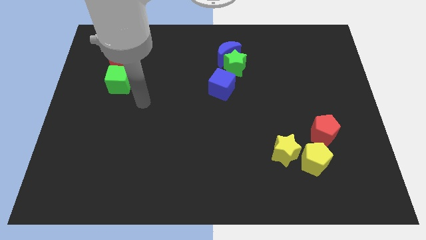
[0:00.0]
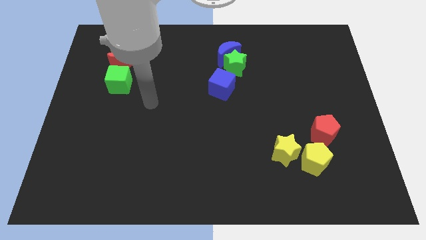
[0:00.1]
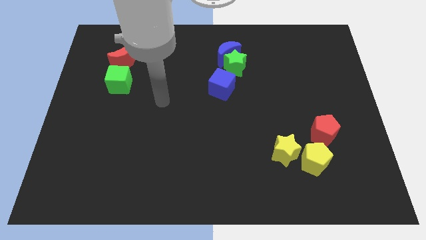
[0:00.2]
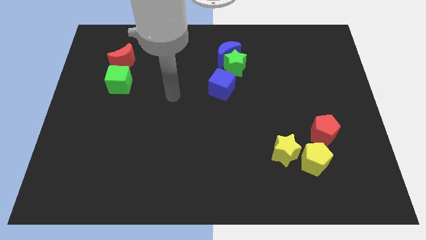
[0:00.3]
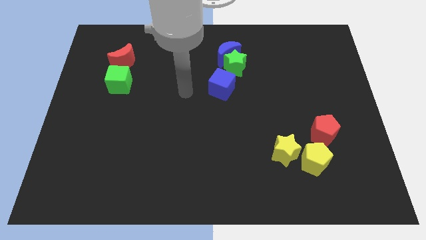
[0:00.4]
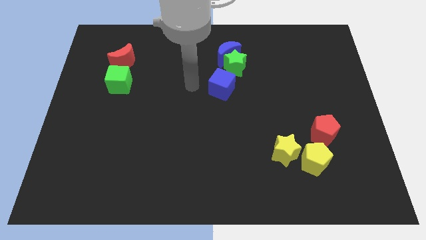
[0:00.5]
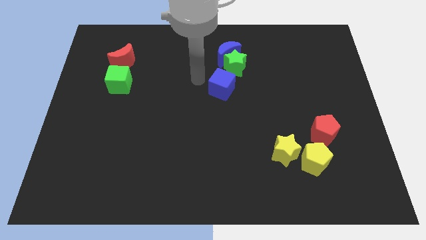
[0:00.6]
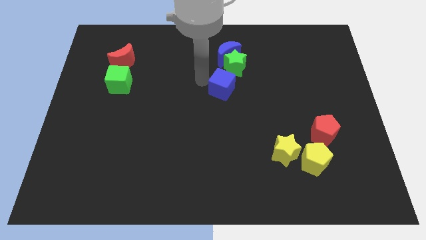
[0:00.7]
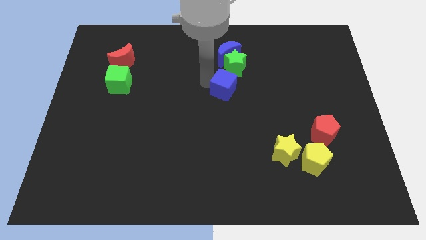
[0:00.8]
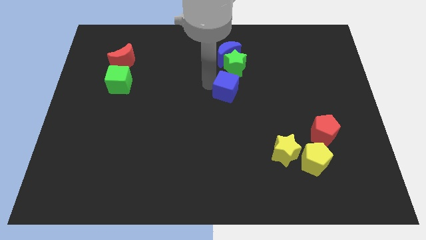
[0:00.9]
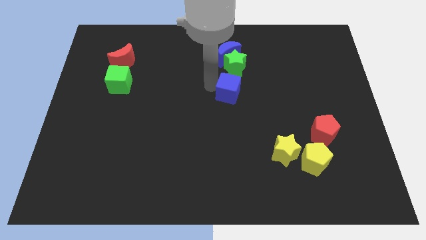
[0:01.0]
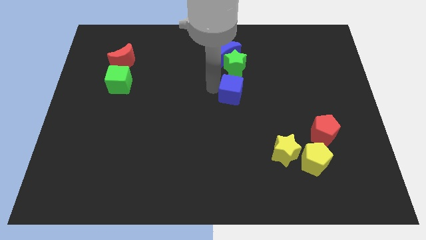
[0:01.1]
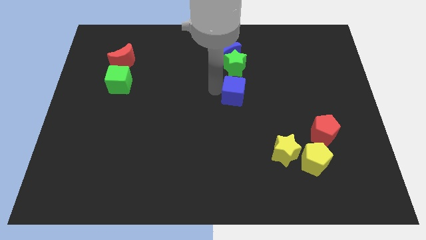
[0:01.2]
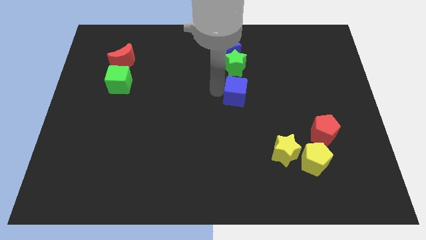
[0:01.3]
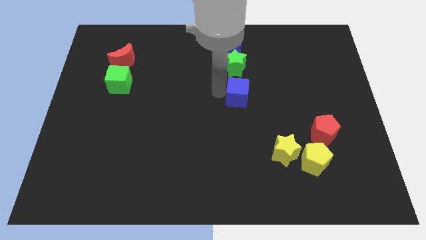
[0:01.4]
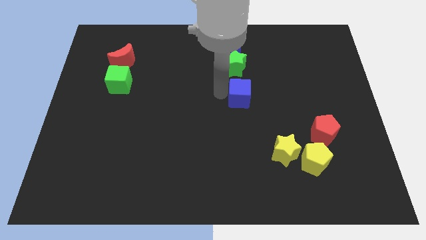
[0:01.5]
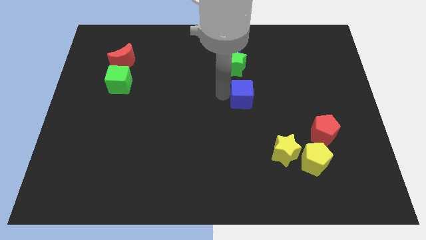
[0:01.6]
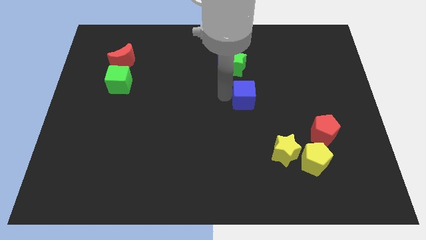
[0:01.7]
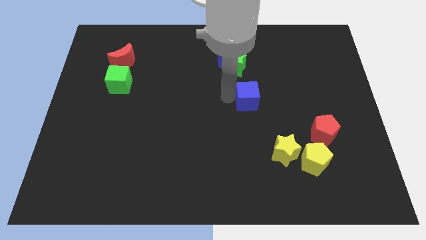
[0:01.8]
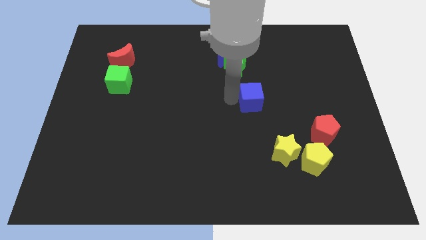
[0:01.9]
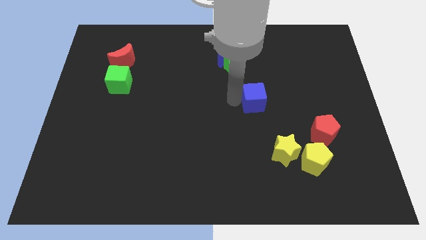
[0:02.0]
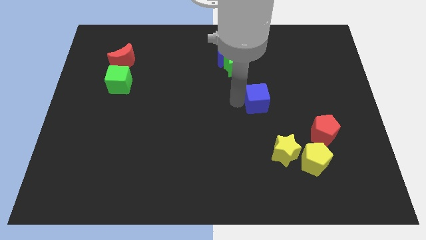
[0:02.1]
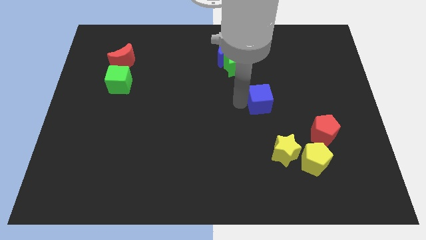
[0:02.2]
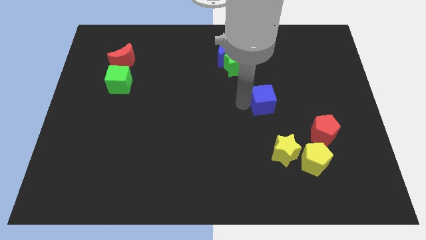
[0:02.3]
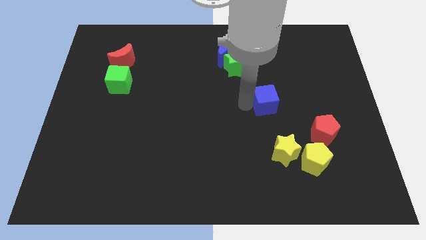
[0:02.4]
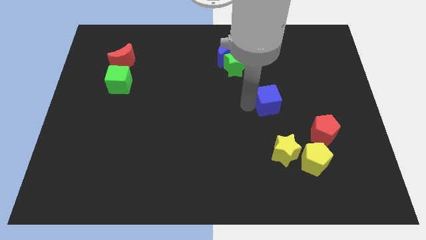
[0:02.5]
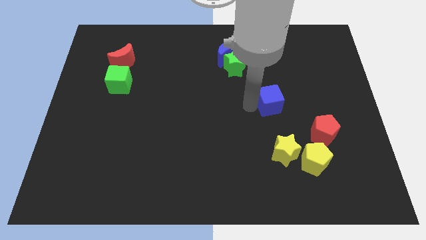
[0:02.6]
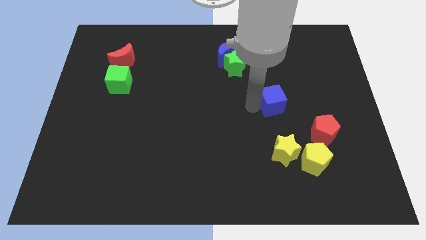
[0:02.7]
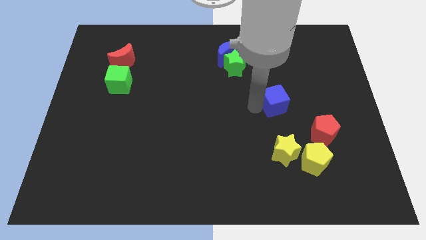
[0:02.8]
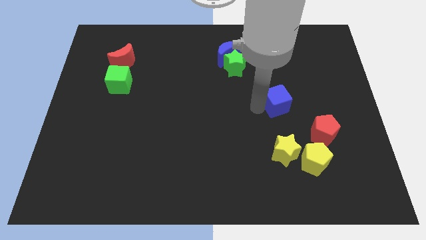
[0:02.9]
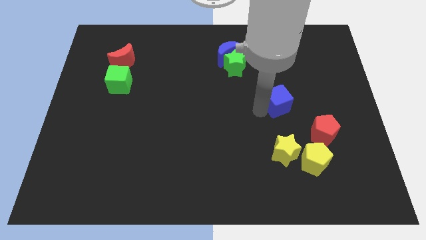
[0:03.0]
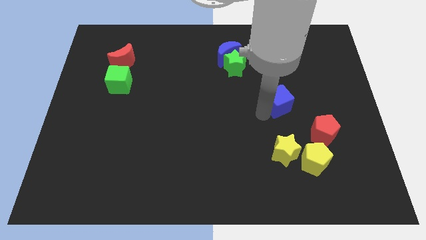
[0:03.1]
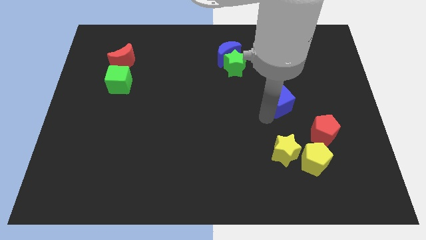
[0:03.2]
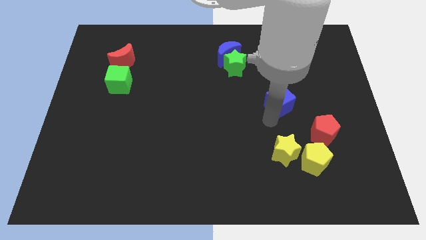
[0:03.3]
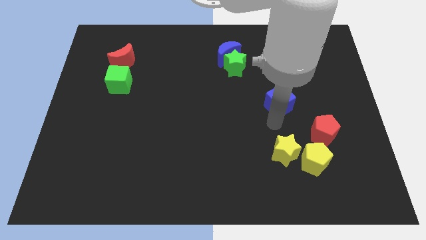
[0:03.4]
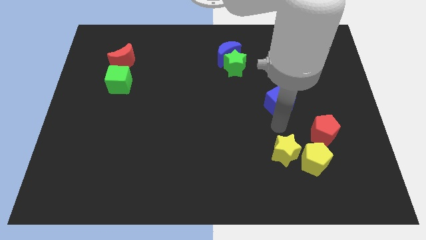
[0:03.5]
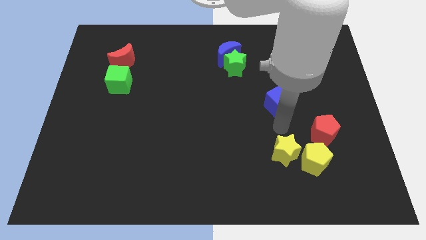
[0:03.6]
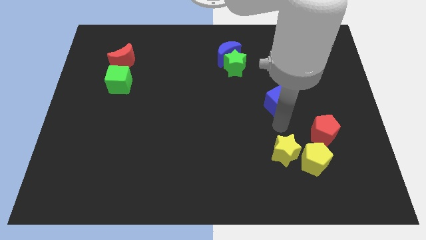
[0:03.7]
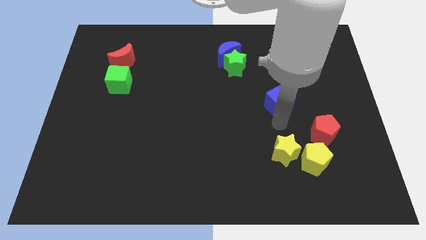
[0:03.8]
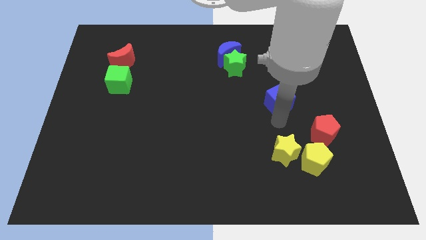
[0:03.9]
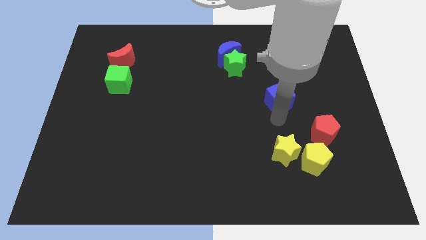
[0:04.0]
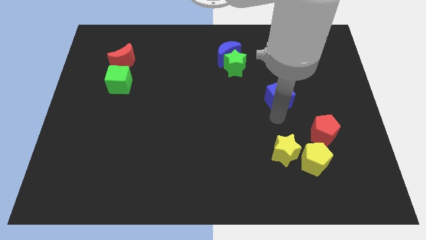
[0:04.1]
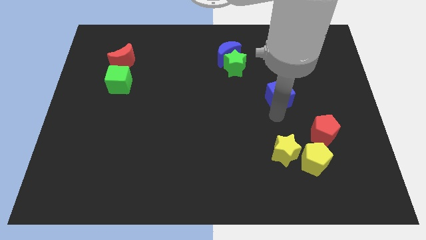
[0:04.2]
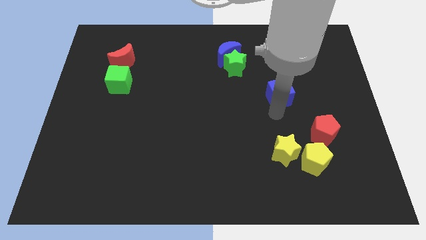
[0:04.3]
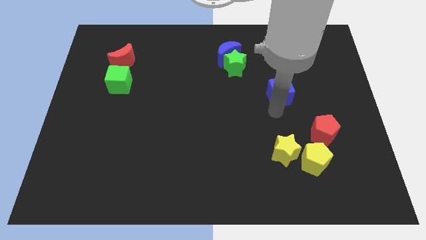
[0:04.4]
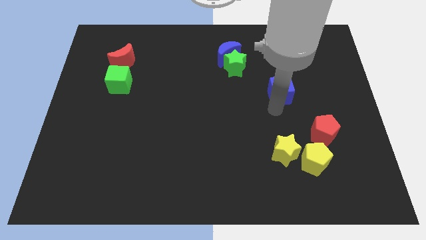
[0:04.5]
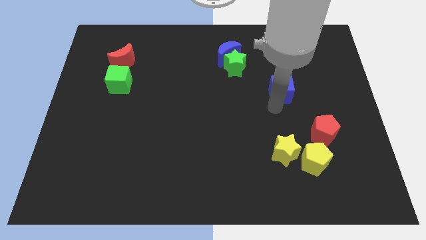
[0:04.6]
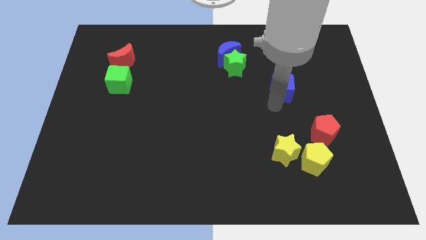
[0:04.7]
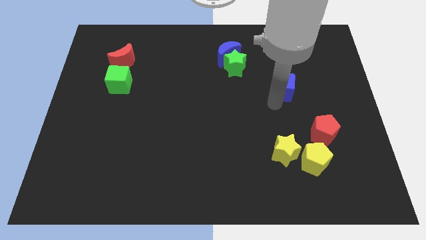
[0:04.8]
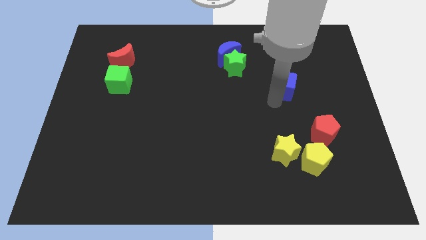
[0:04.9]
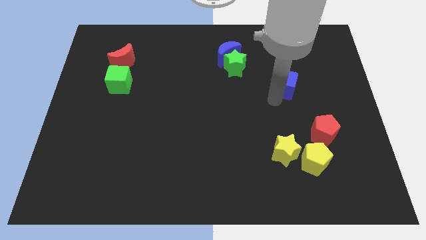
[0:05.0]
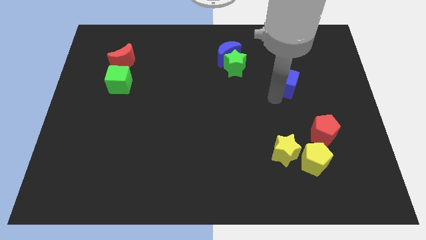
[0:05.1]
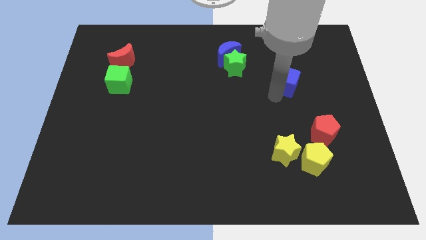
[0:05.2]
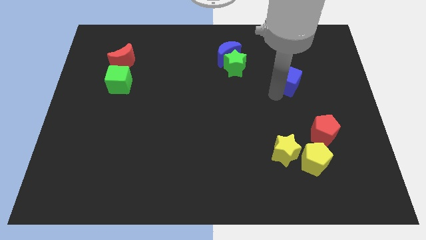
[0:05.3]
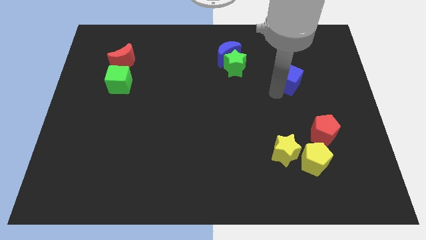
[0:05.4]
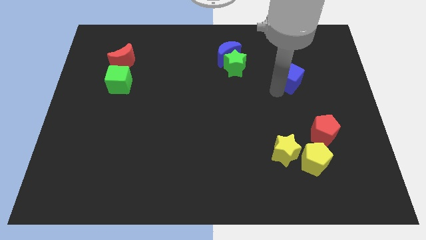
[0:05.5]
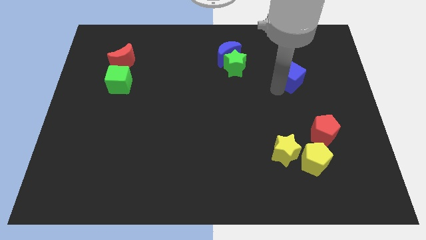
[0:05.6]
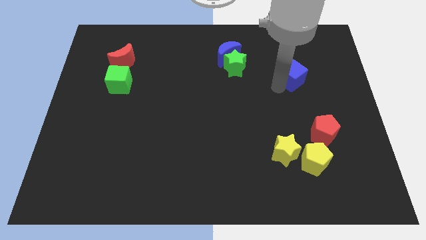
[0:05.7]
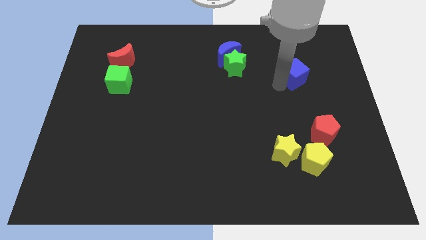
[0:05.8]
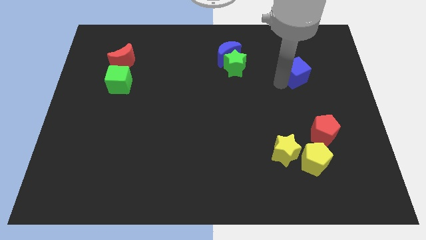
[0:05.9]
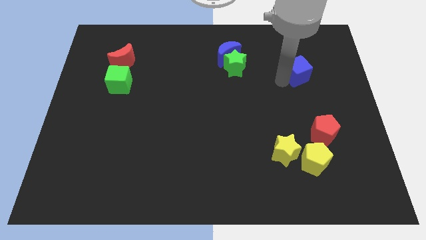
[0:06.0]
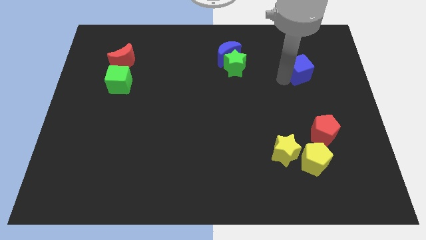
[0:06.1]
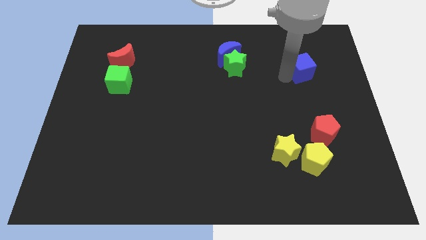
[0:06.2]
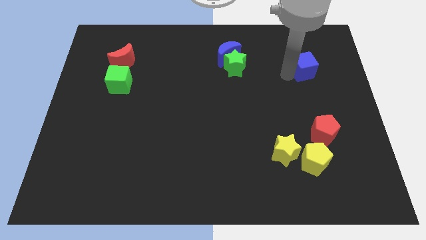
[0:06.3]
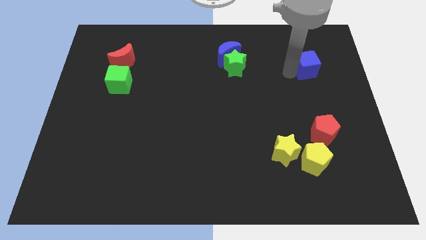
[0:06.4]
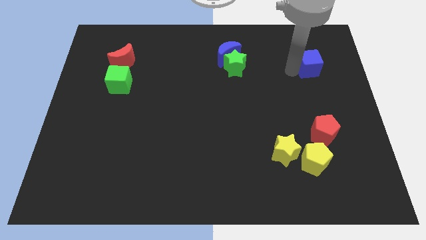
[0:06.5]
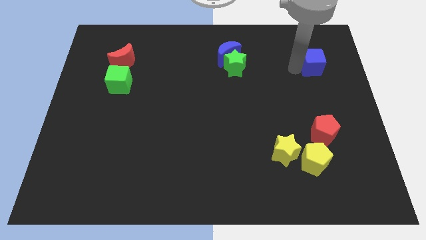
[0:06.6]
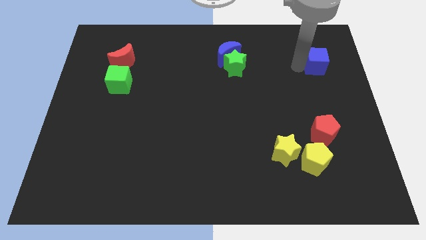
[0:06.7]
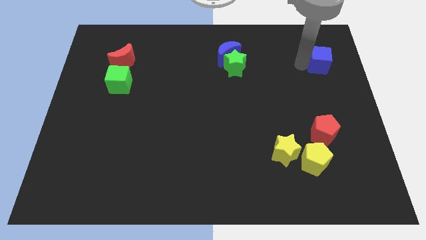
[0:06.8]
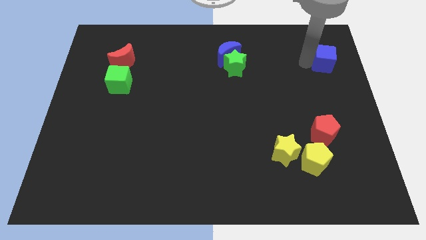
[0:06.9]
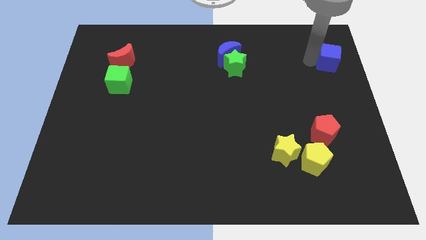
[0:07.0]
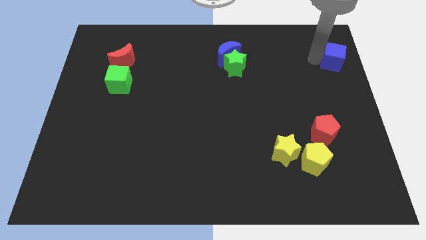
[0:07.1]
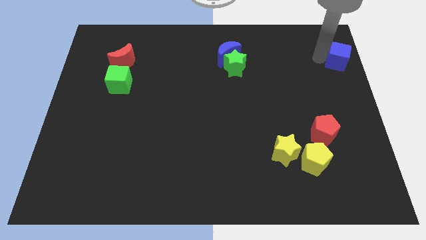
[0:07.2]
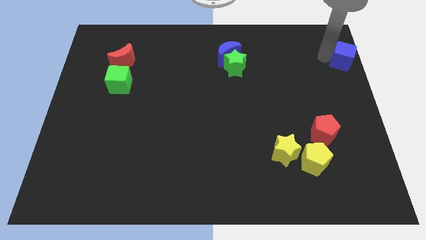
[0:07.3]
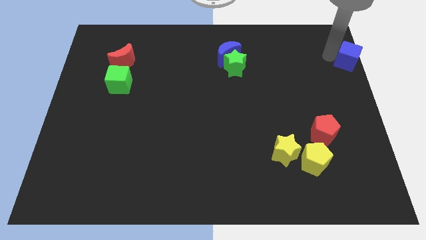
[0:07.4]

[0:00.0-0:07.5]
push the blue cube to the right side
